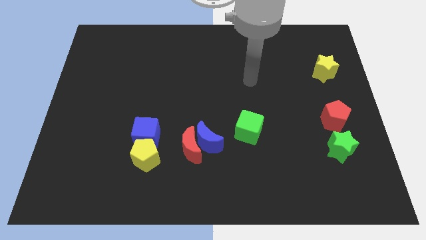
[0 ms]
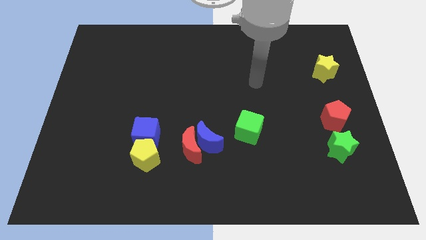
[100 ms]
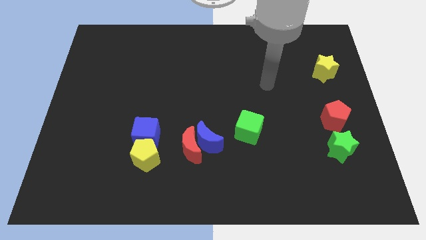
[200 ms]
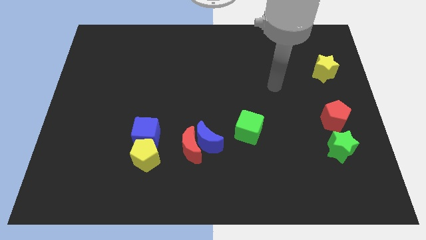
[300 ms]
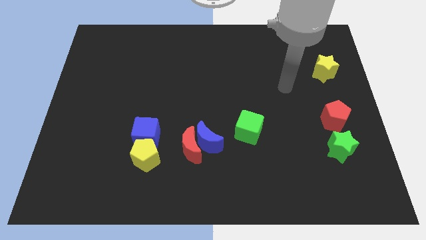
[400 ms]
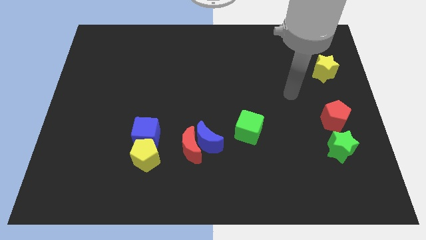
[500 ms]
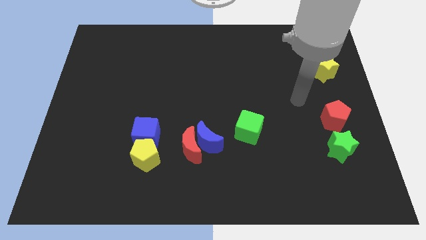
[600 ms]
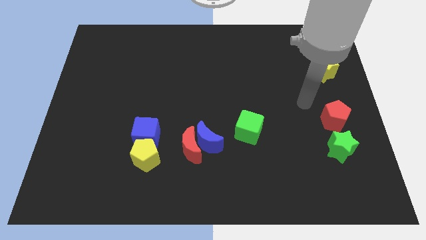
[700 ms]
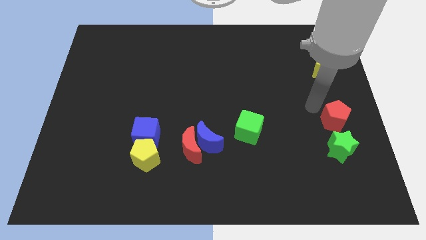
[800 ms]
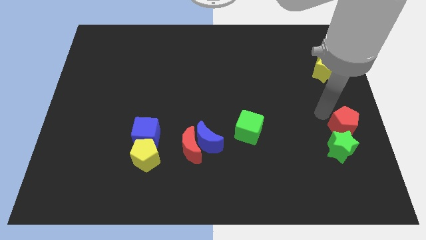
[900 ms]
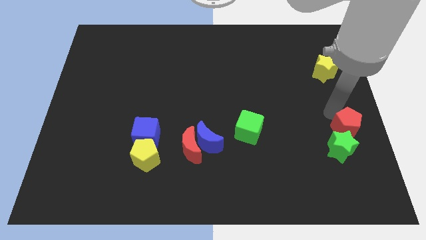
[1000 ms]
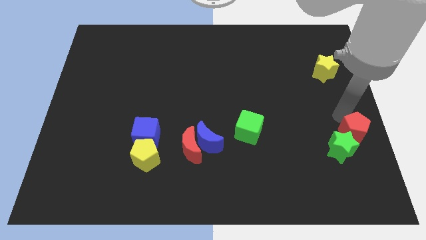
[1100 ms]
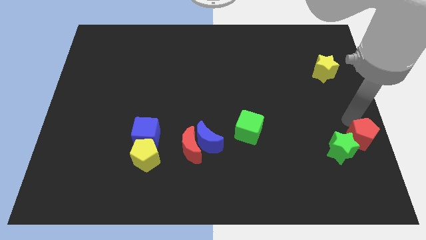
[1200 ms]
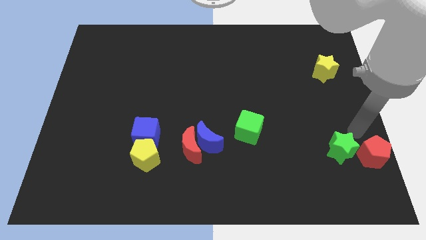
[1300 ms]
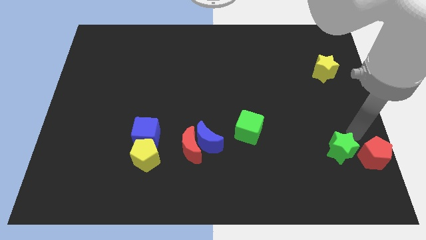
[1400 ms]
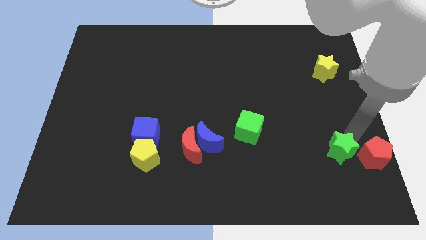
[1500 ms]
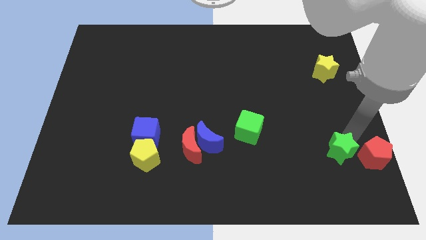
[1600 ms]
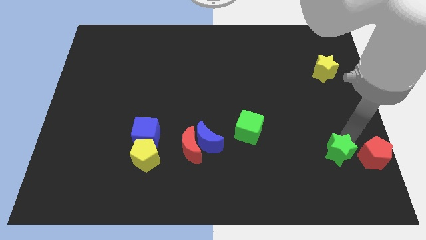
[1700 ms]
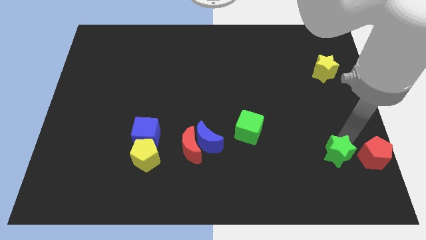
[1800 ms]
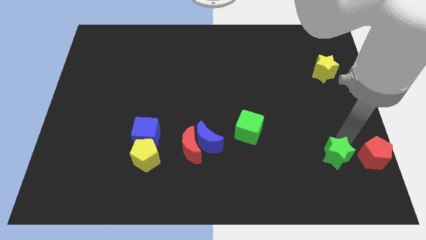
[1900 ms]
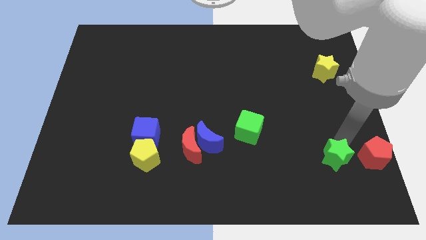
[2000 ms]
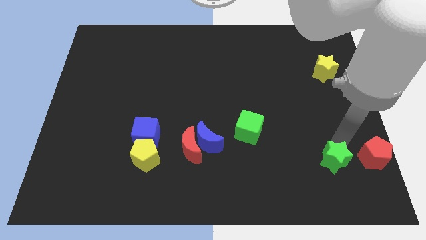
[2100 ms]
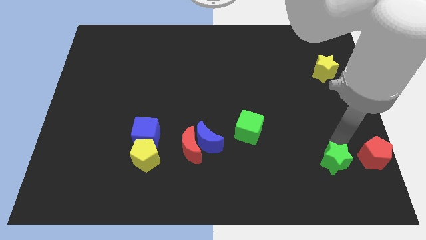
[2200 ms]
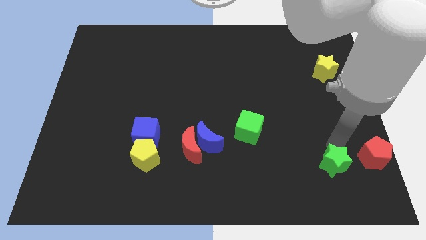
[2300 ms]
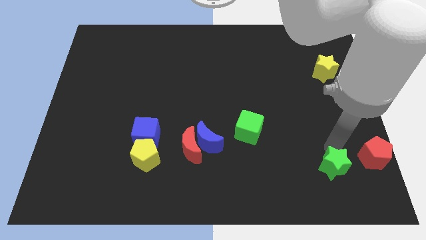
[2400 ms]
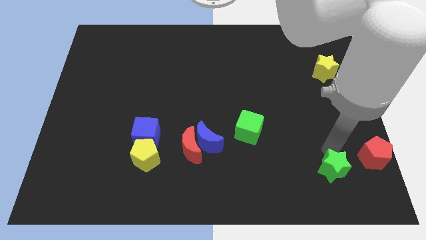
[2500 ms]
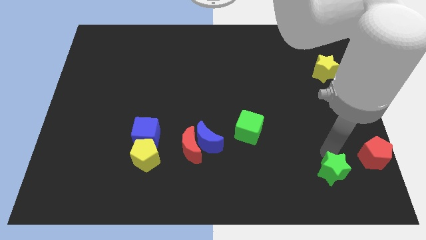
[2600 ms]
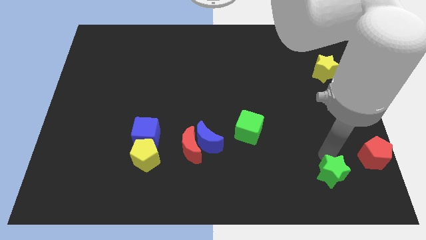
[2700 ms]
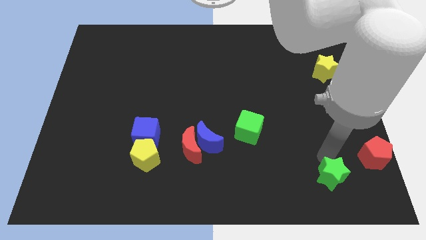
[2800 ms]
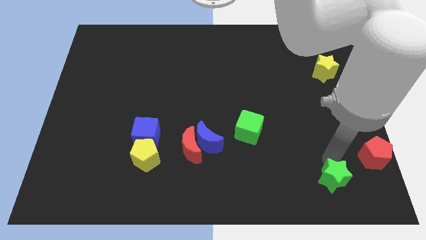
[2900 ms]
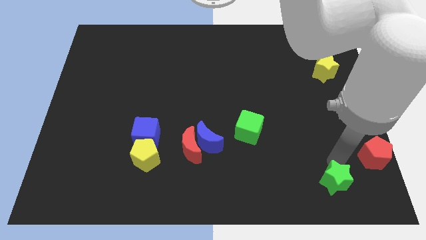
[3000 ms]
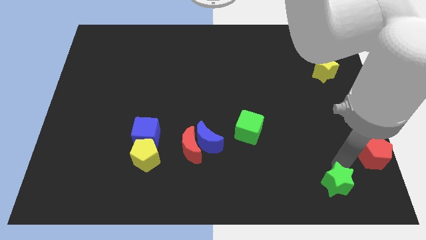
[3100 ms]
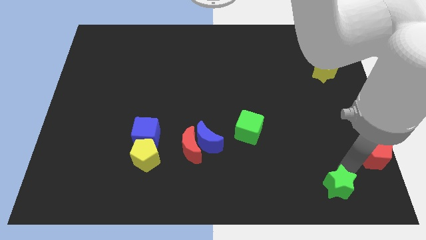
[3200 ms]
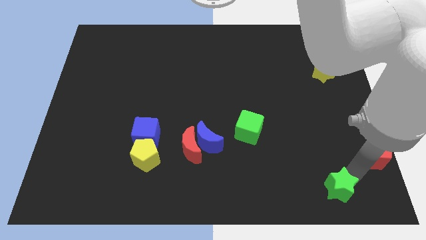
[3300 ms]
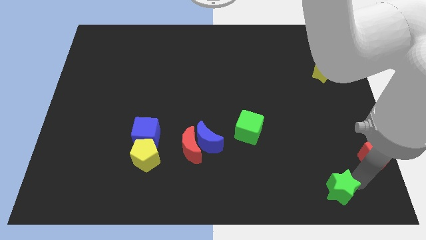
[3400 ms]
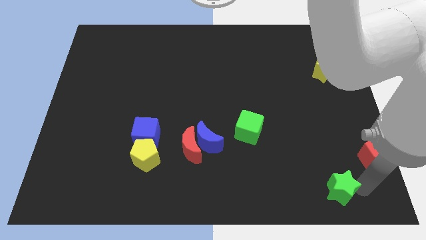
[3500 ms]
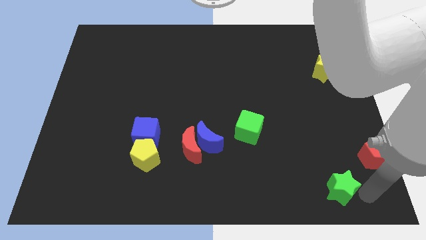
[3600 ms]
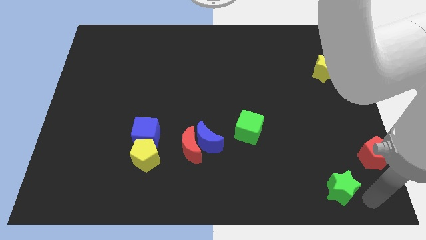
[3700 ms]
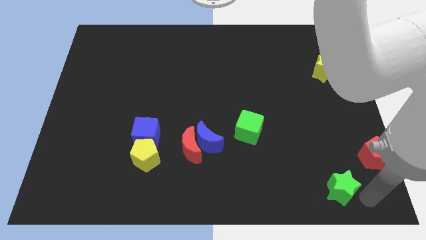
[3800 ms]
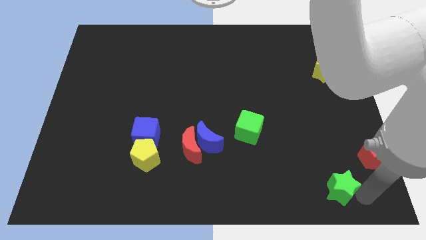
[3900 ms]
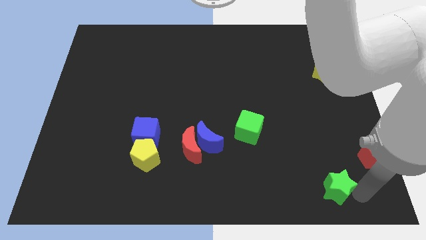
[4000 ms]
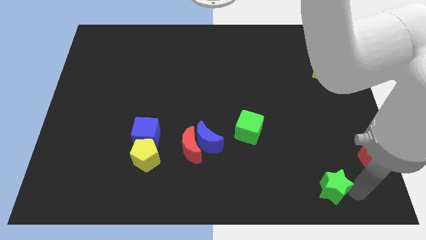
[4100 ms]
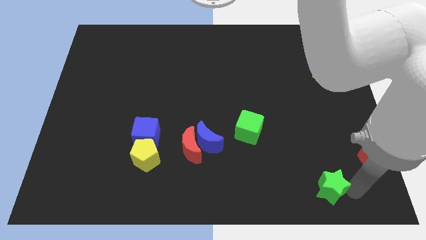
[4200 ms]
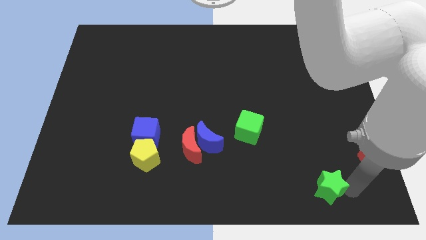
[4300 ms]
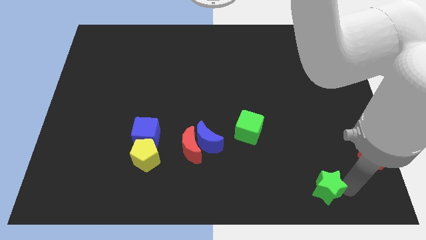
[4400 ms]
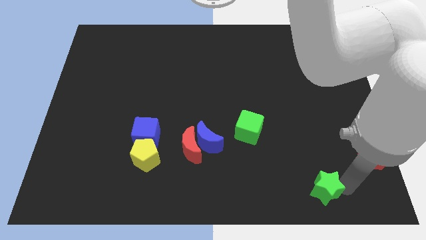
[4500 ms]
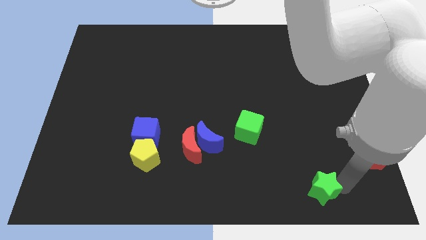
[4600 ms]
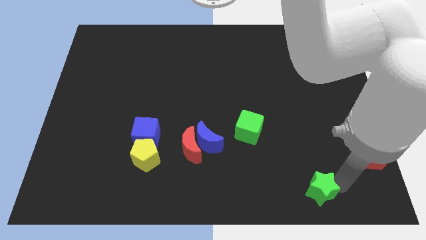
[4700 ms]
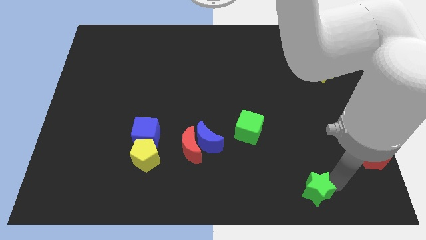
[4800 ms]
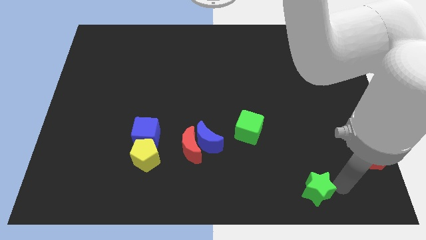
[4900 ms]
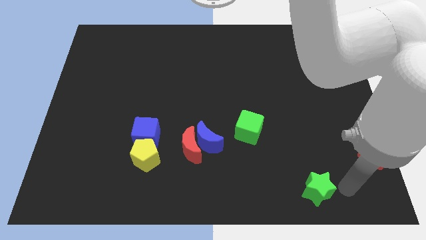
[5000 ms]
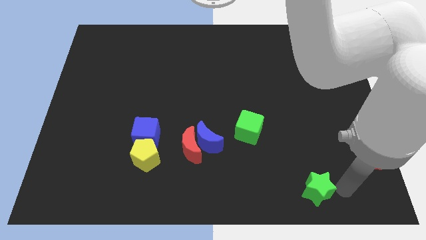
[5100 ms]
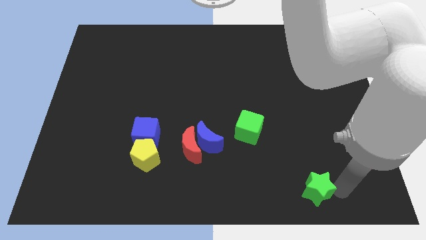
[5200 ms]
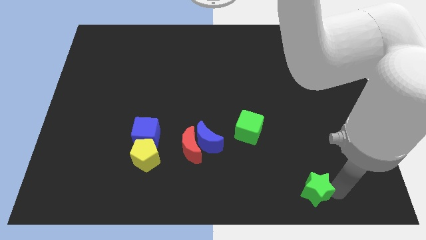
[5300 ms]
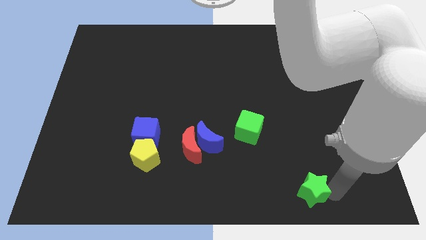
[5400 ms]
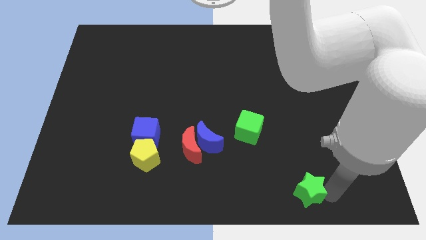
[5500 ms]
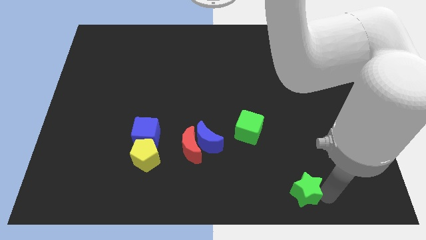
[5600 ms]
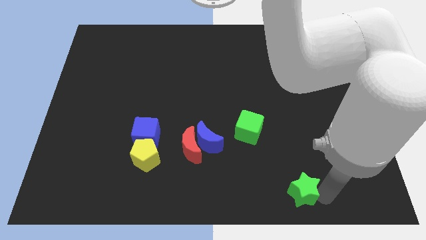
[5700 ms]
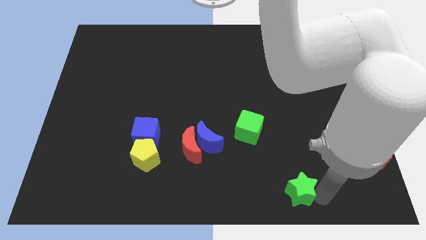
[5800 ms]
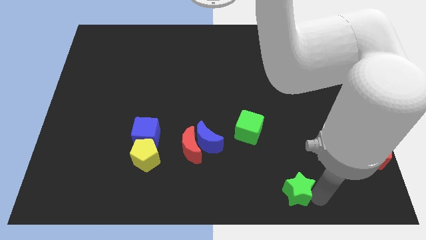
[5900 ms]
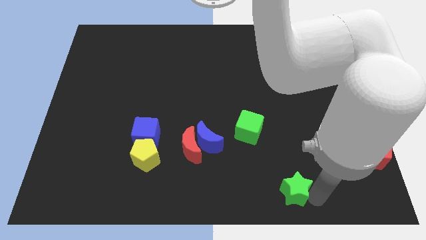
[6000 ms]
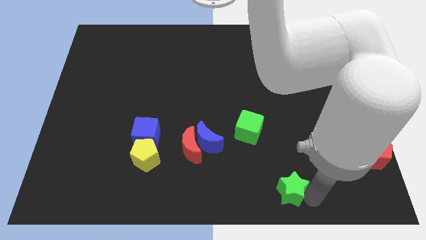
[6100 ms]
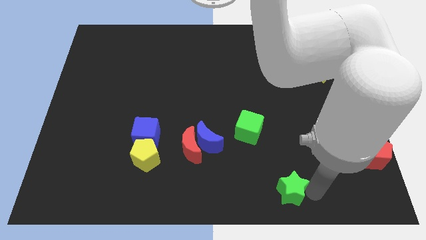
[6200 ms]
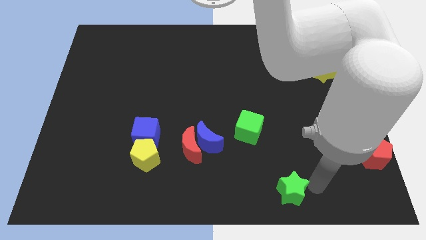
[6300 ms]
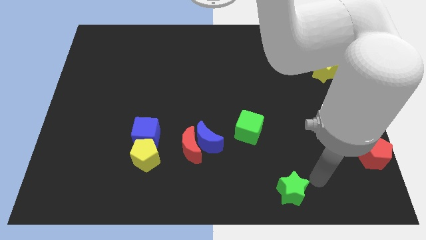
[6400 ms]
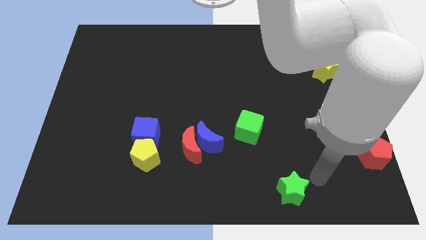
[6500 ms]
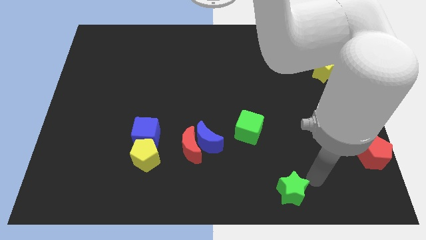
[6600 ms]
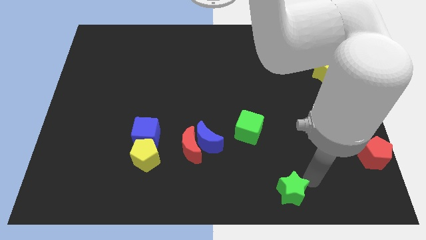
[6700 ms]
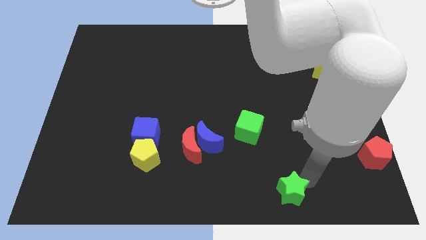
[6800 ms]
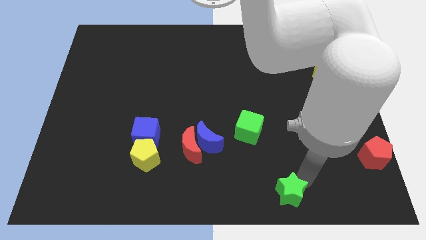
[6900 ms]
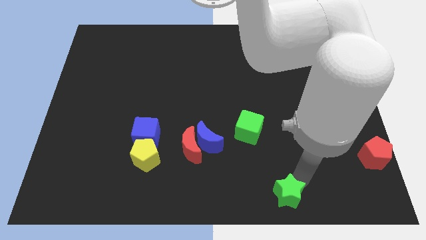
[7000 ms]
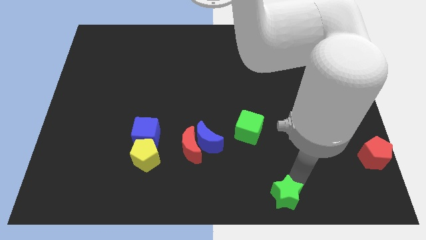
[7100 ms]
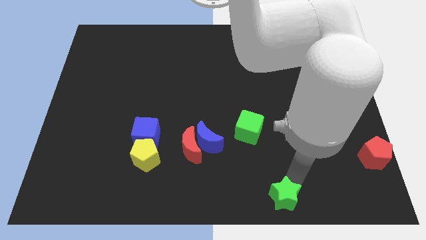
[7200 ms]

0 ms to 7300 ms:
push the green star to the bottom side
